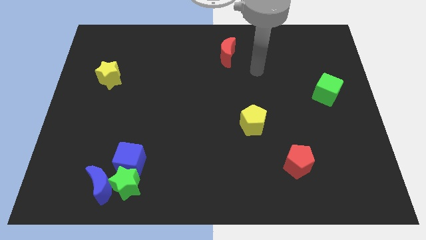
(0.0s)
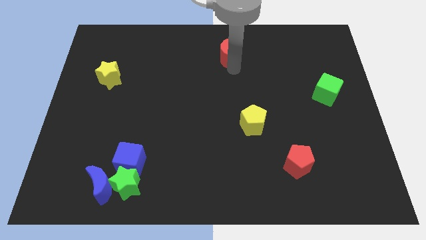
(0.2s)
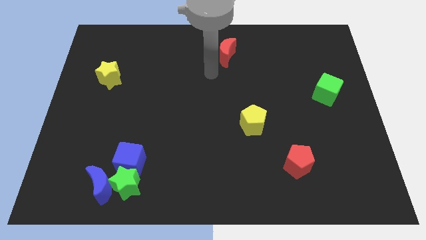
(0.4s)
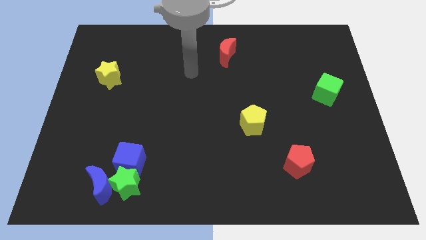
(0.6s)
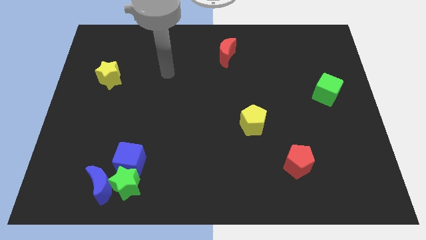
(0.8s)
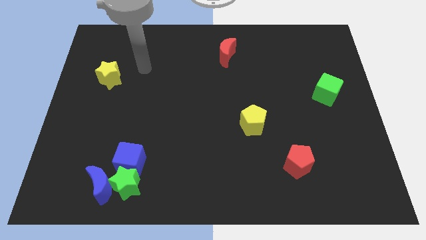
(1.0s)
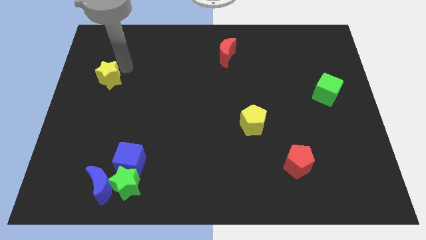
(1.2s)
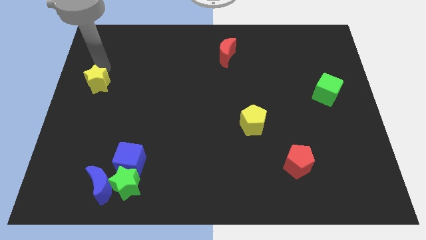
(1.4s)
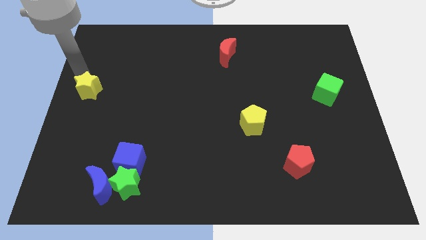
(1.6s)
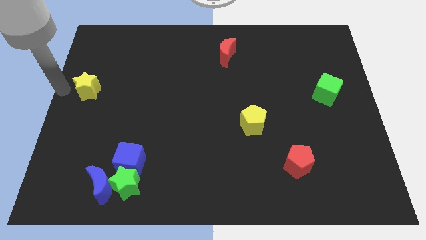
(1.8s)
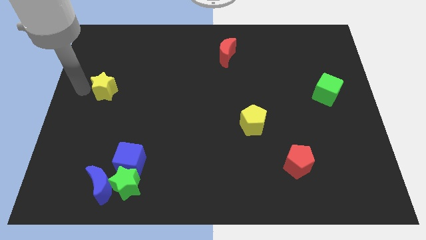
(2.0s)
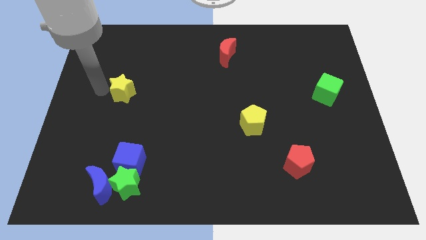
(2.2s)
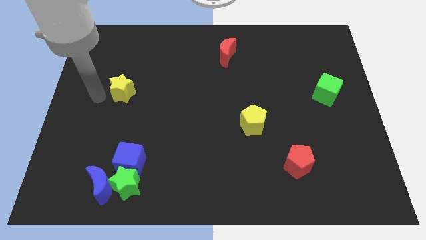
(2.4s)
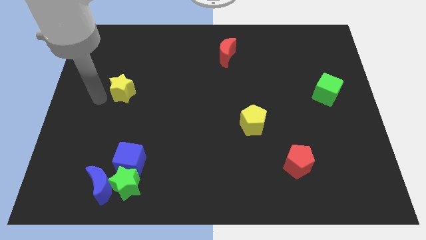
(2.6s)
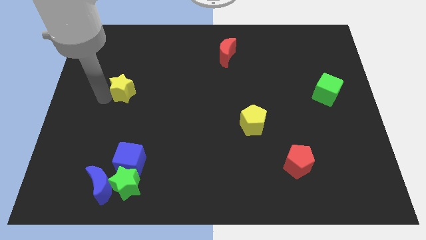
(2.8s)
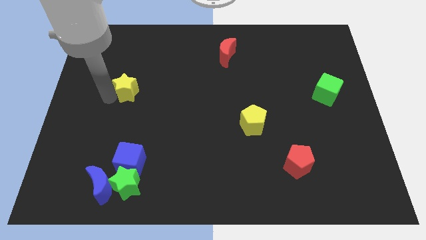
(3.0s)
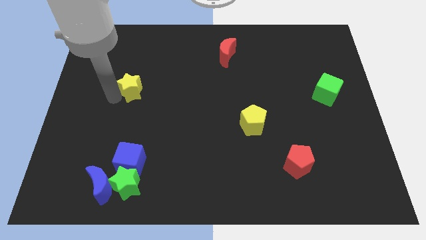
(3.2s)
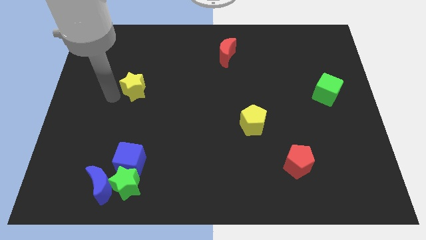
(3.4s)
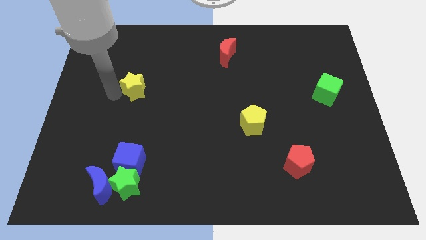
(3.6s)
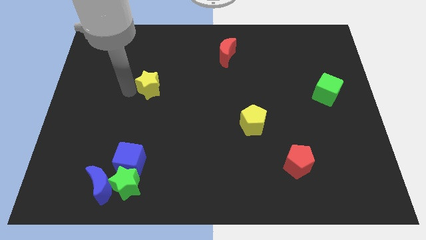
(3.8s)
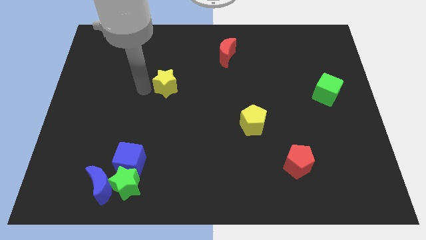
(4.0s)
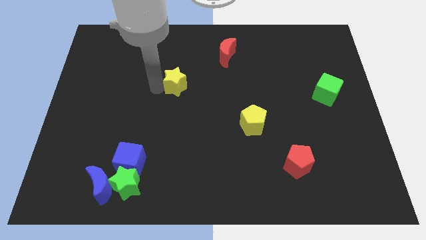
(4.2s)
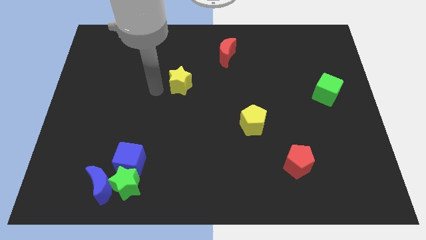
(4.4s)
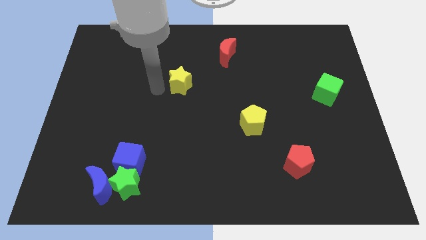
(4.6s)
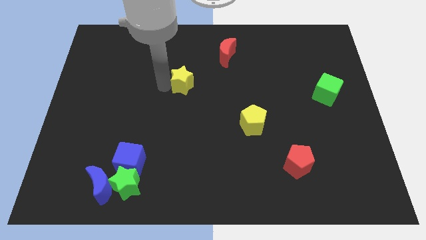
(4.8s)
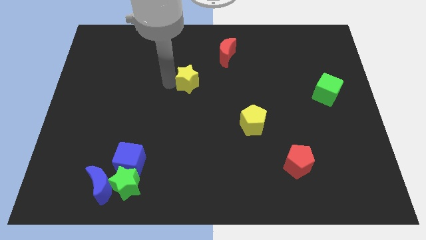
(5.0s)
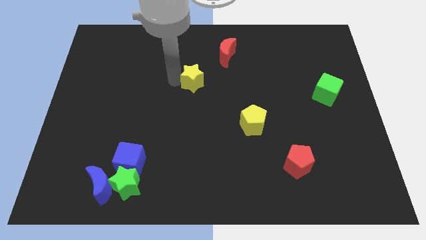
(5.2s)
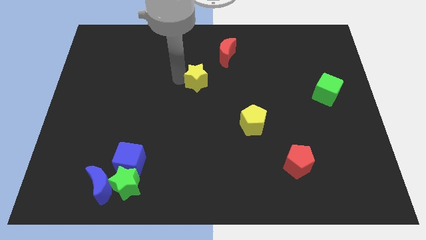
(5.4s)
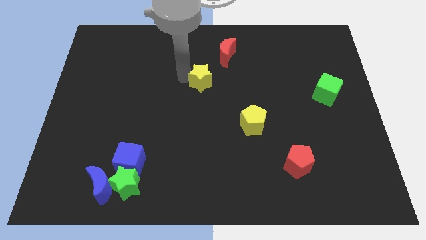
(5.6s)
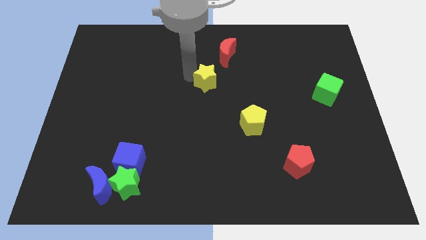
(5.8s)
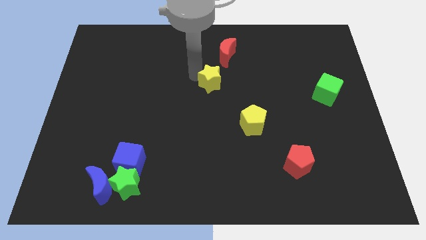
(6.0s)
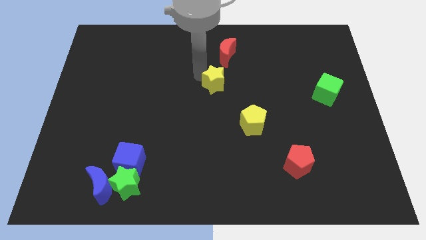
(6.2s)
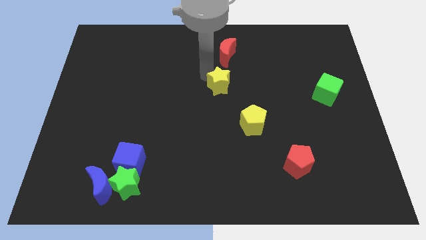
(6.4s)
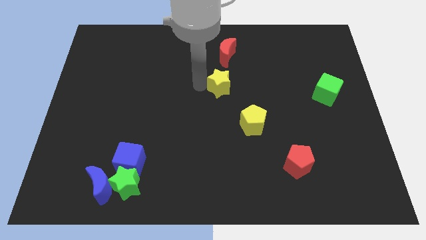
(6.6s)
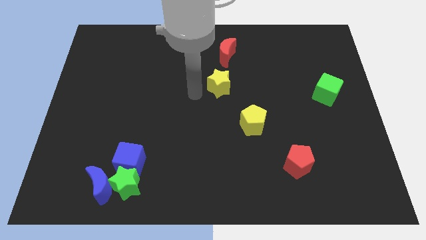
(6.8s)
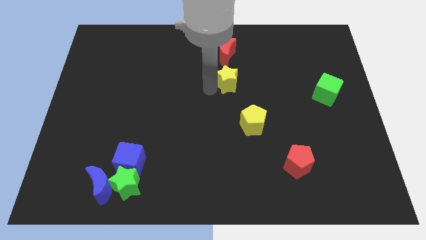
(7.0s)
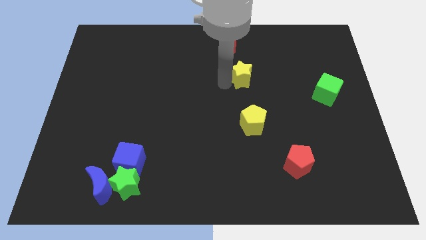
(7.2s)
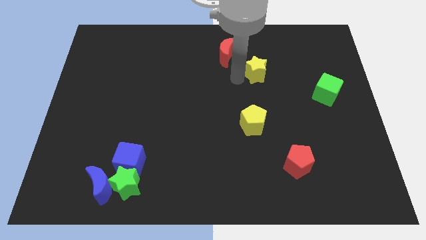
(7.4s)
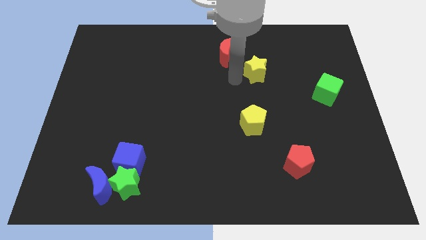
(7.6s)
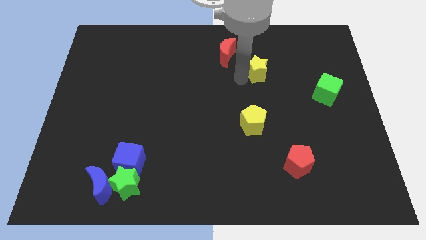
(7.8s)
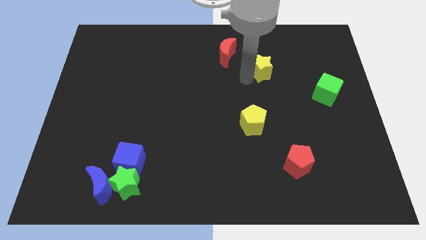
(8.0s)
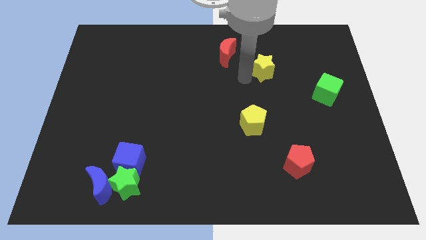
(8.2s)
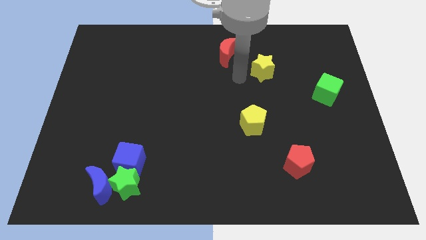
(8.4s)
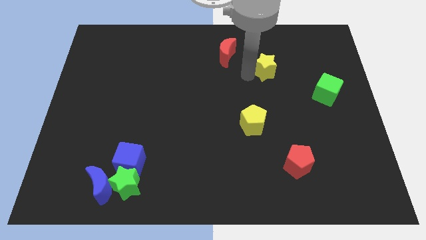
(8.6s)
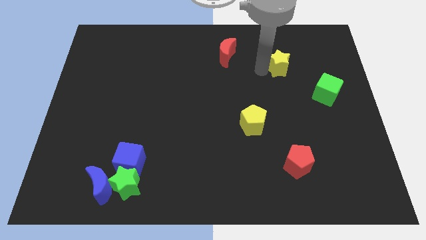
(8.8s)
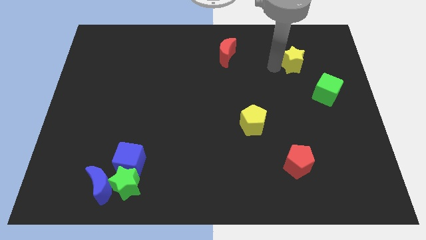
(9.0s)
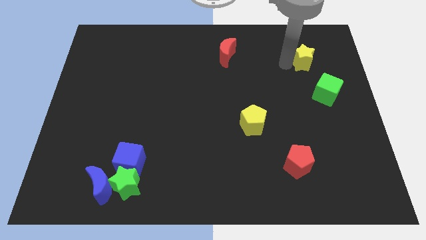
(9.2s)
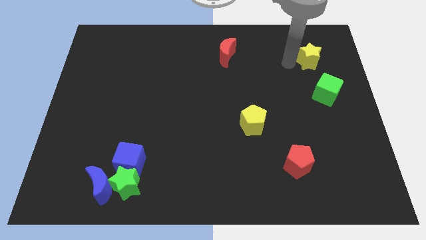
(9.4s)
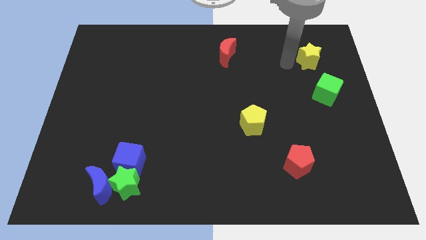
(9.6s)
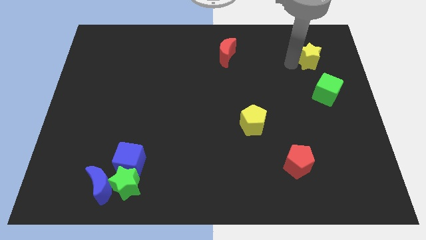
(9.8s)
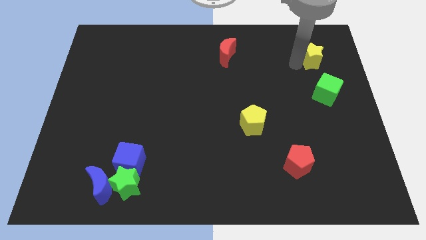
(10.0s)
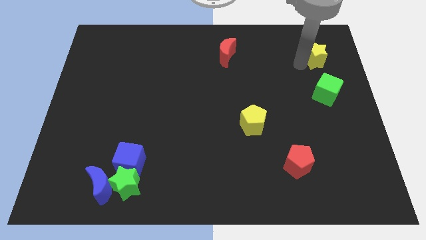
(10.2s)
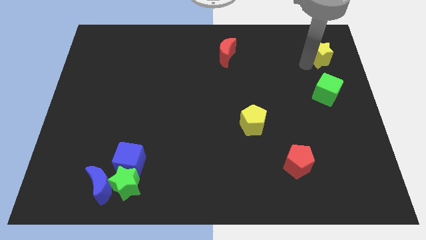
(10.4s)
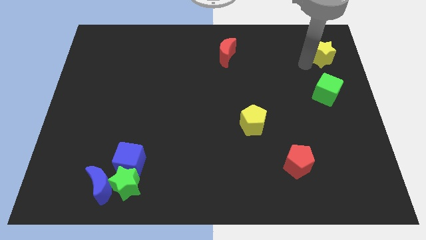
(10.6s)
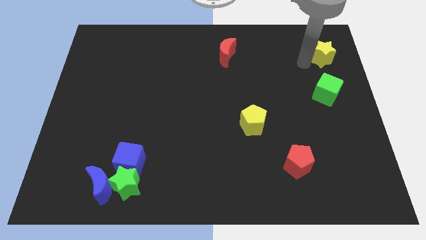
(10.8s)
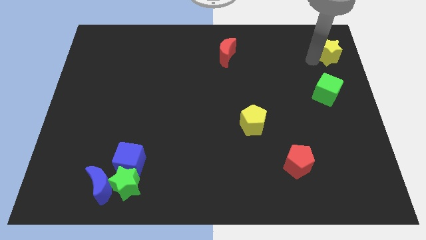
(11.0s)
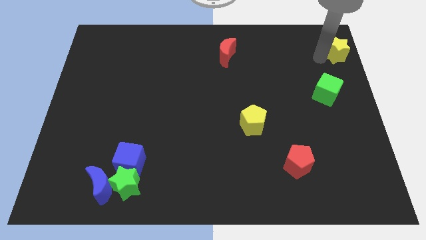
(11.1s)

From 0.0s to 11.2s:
push the yellow star to the upper right corner
